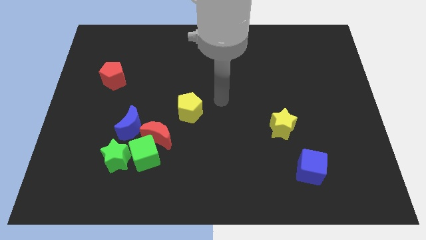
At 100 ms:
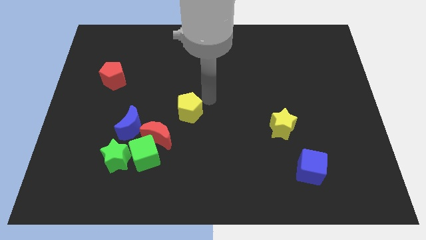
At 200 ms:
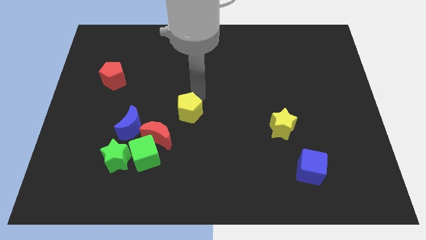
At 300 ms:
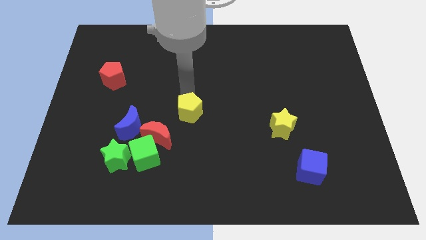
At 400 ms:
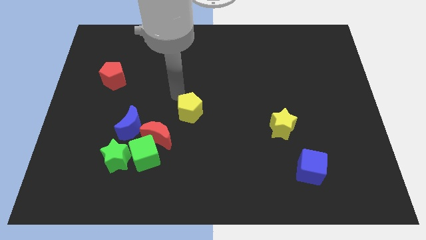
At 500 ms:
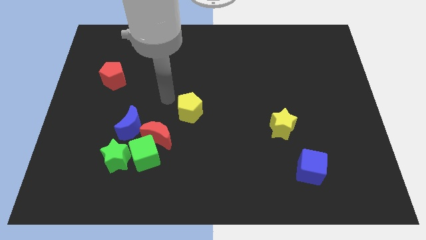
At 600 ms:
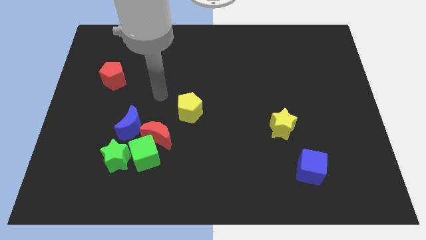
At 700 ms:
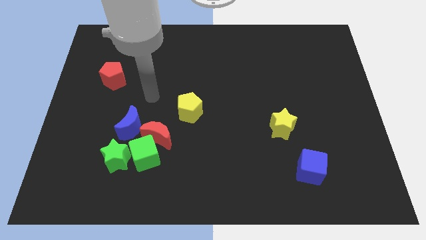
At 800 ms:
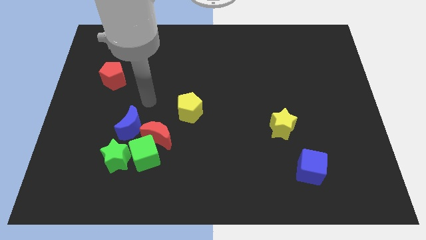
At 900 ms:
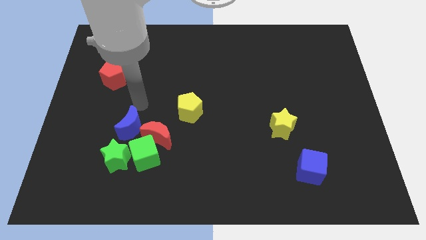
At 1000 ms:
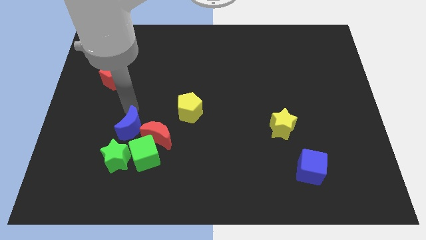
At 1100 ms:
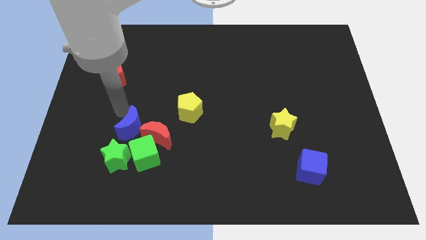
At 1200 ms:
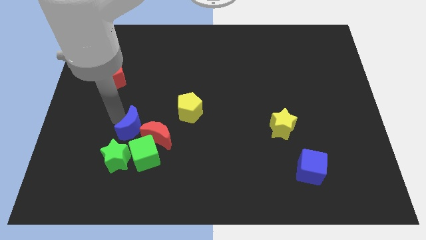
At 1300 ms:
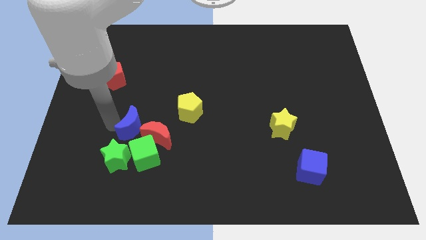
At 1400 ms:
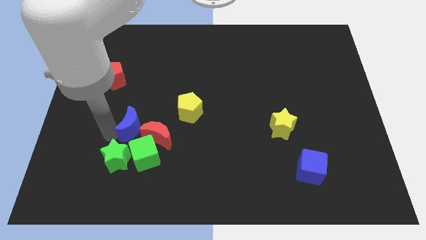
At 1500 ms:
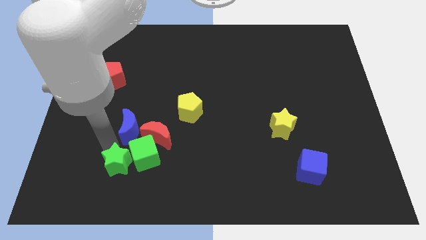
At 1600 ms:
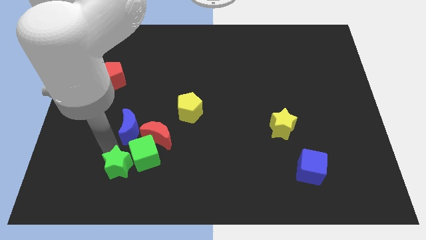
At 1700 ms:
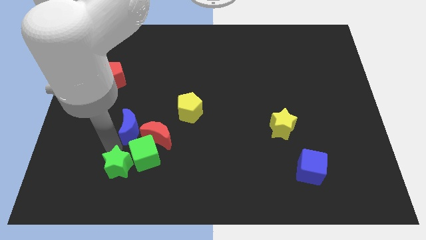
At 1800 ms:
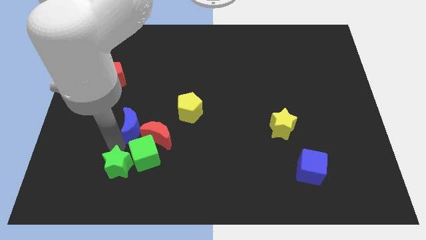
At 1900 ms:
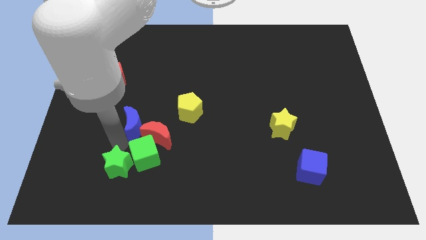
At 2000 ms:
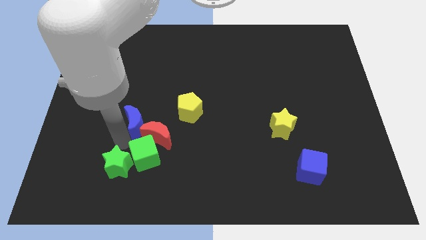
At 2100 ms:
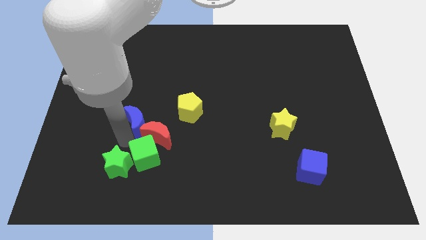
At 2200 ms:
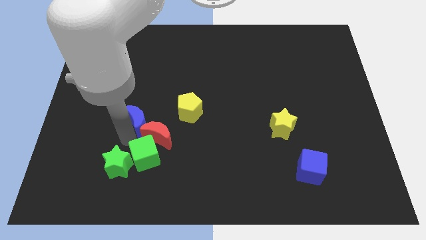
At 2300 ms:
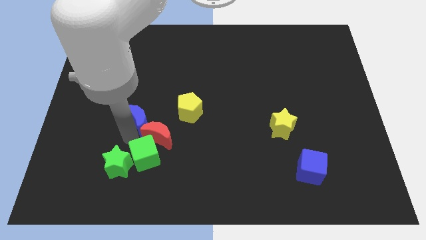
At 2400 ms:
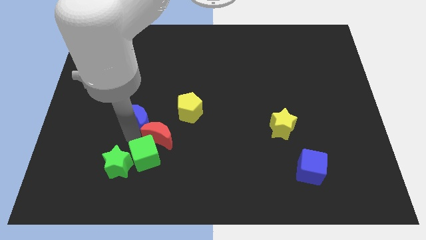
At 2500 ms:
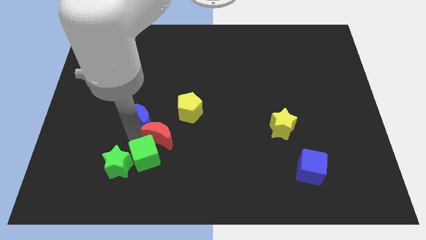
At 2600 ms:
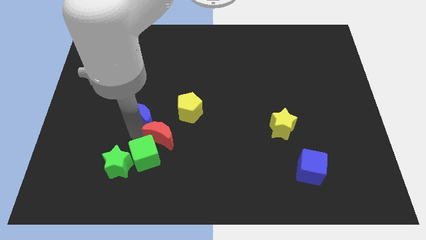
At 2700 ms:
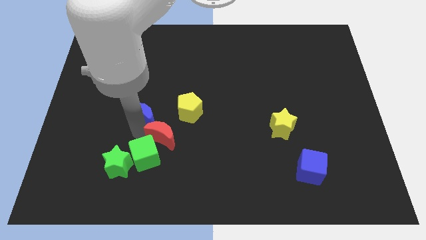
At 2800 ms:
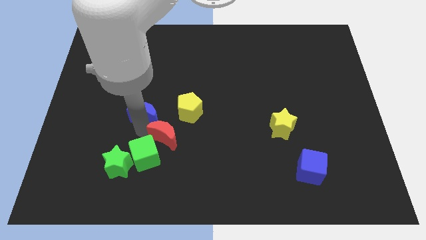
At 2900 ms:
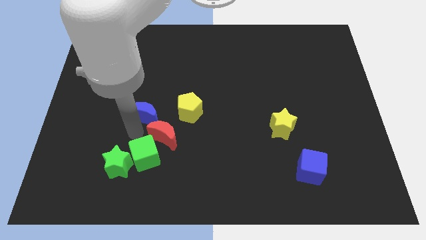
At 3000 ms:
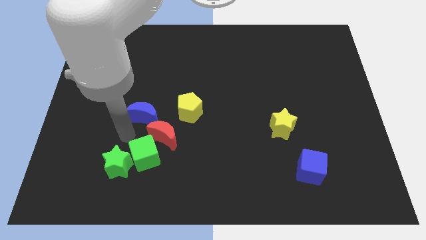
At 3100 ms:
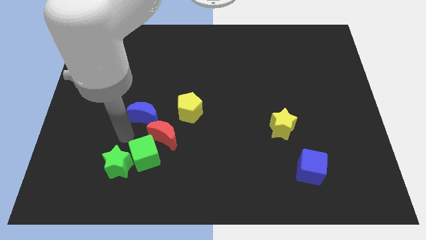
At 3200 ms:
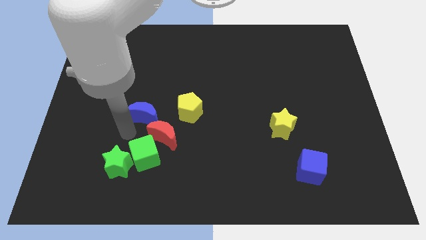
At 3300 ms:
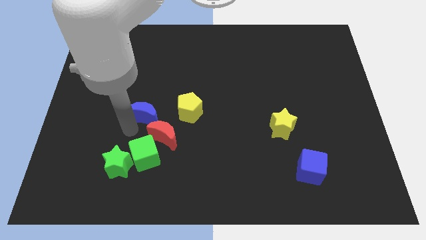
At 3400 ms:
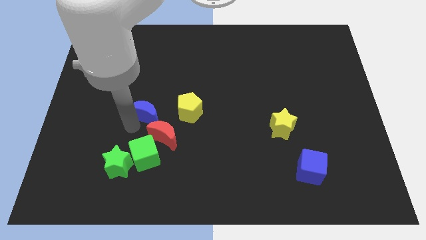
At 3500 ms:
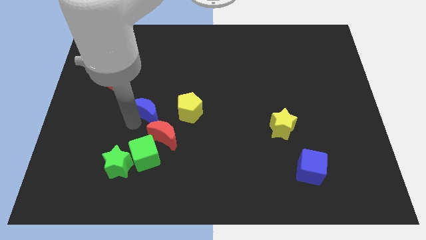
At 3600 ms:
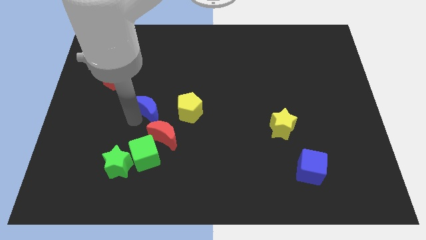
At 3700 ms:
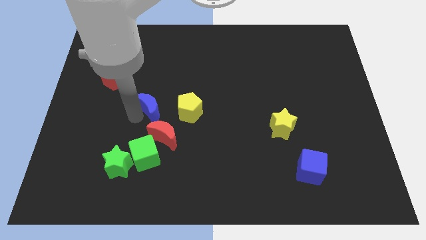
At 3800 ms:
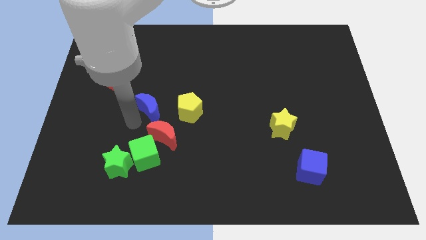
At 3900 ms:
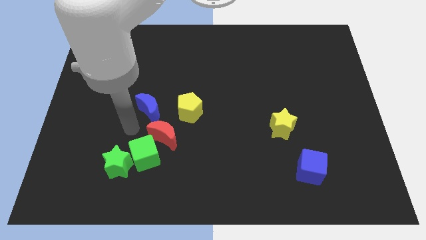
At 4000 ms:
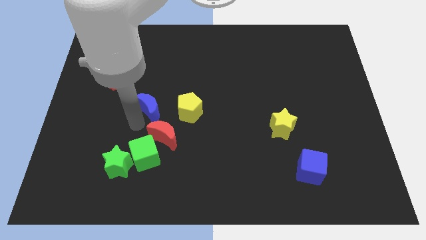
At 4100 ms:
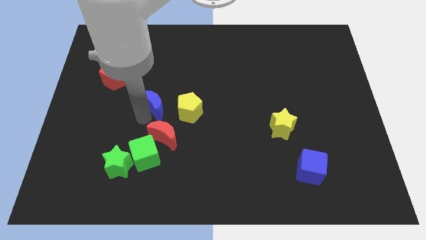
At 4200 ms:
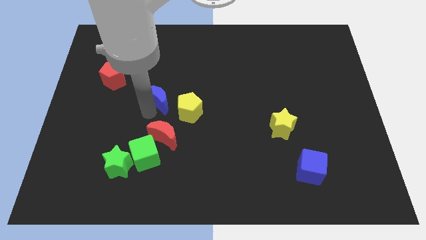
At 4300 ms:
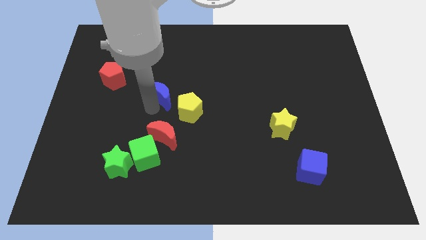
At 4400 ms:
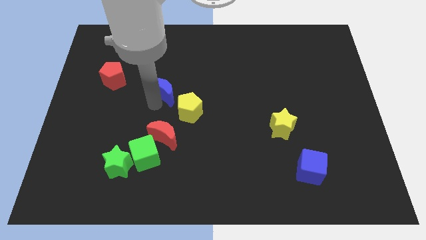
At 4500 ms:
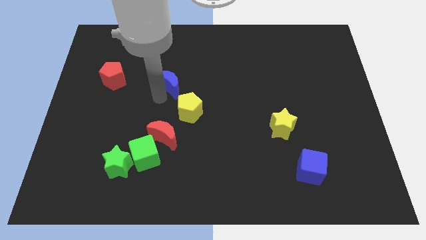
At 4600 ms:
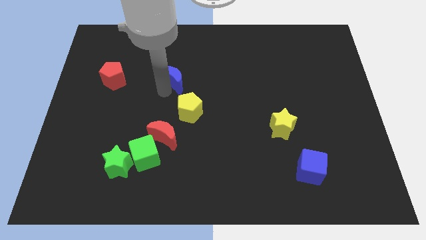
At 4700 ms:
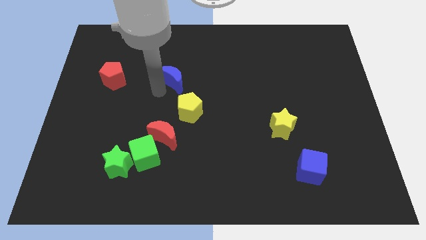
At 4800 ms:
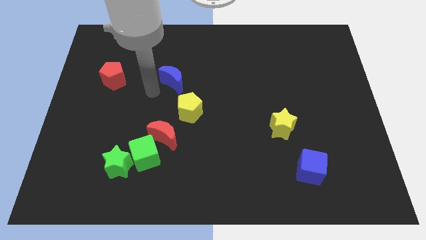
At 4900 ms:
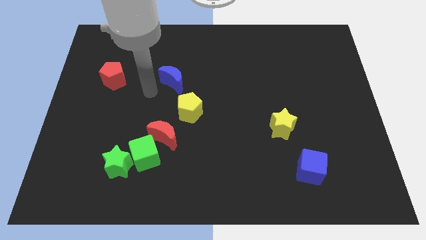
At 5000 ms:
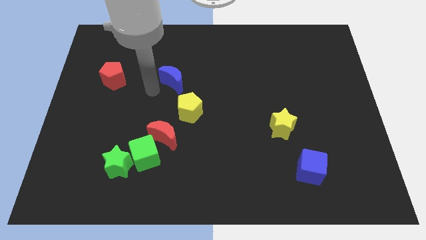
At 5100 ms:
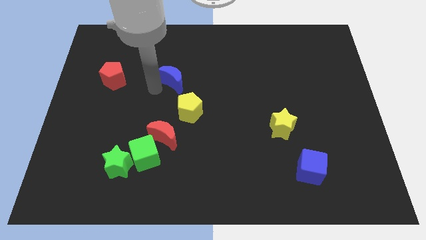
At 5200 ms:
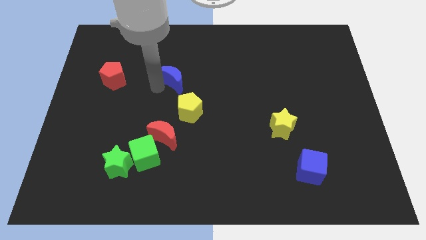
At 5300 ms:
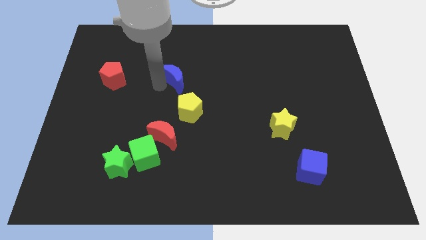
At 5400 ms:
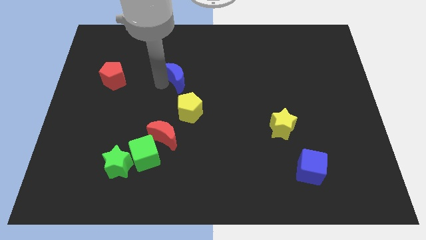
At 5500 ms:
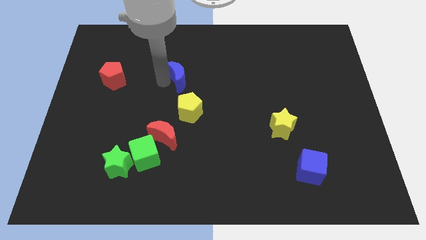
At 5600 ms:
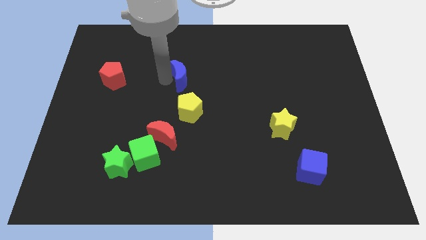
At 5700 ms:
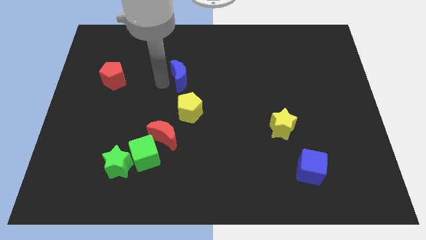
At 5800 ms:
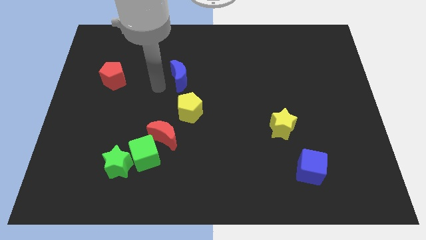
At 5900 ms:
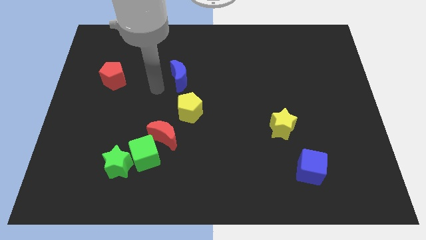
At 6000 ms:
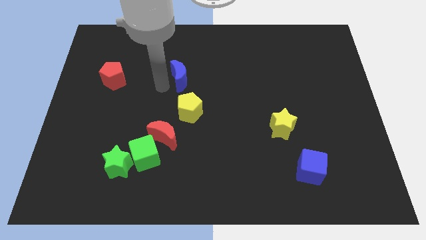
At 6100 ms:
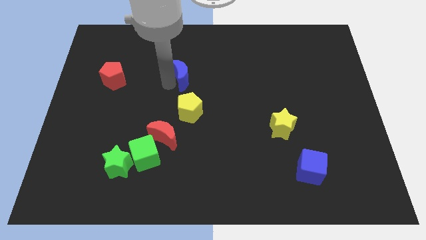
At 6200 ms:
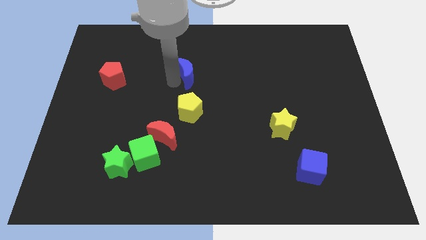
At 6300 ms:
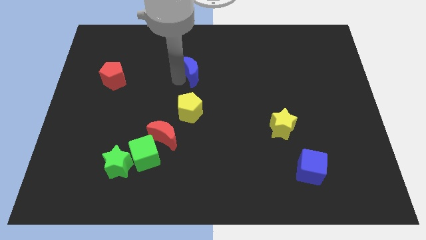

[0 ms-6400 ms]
move the blue moon upwards and to the right diagonally

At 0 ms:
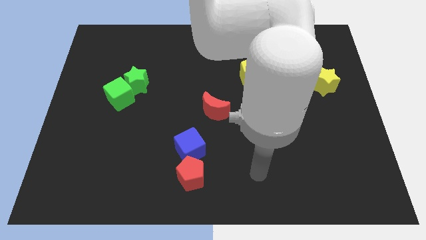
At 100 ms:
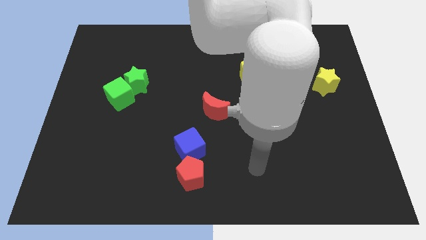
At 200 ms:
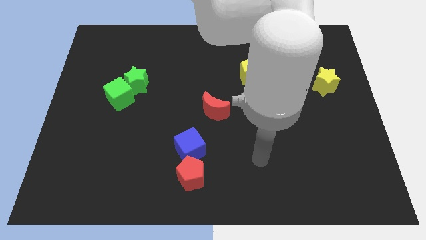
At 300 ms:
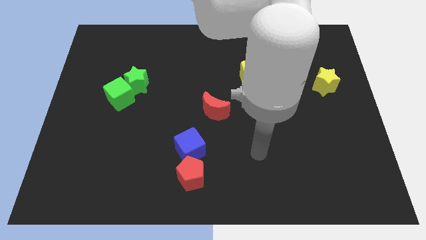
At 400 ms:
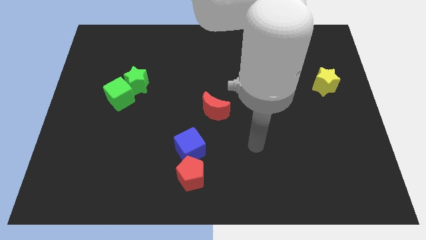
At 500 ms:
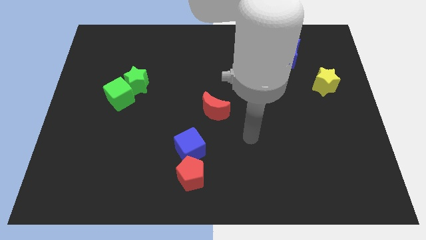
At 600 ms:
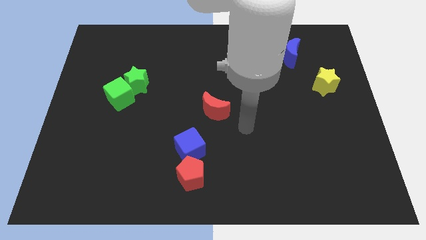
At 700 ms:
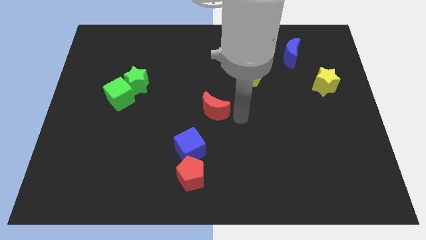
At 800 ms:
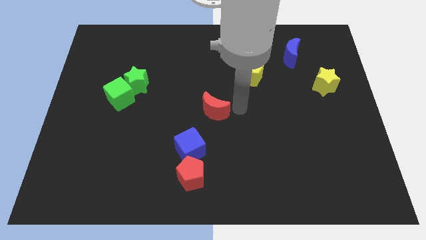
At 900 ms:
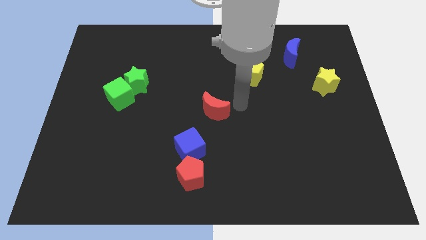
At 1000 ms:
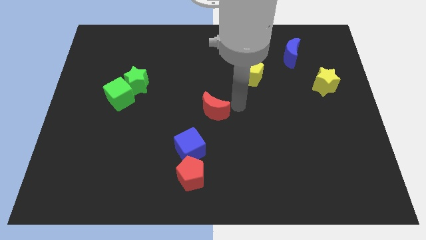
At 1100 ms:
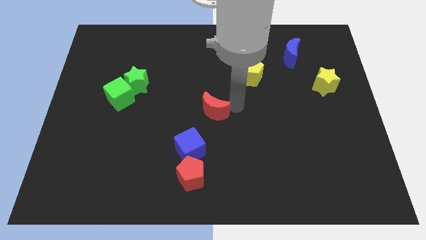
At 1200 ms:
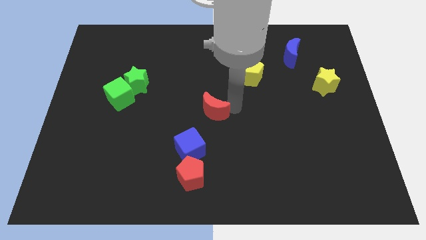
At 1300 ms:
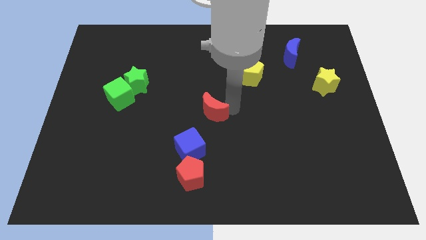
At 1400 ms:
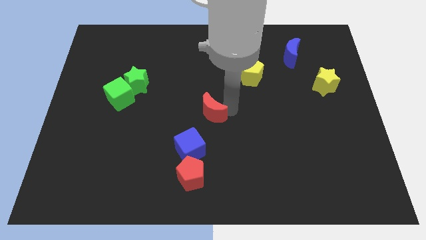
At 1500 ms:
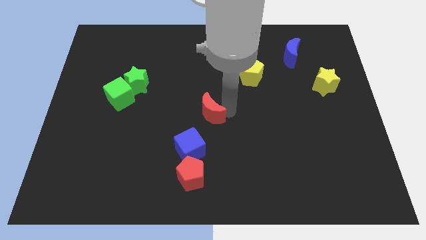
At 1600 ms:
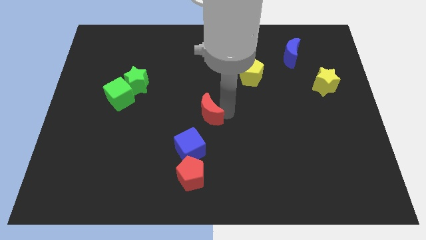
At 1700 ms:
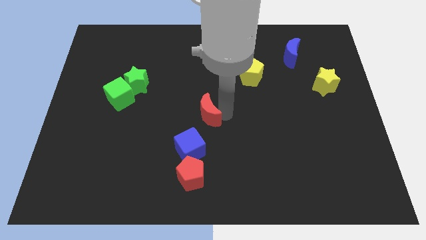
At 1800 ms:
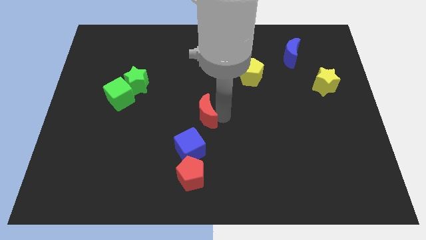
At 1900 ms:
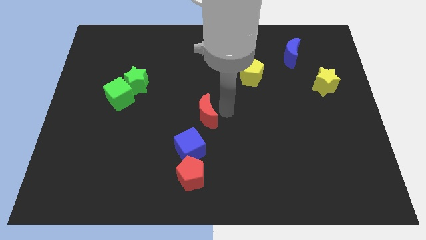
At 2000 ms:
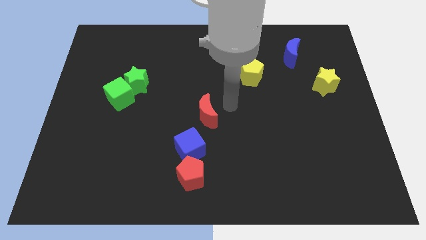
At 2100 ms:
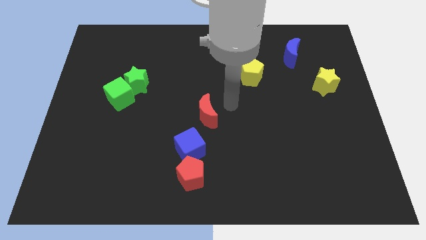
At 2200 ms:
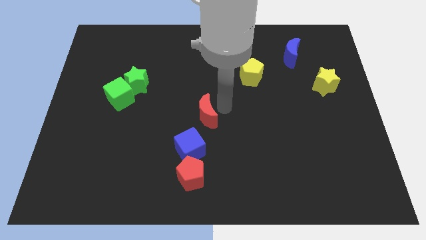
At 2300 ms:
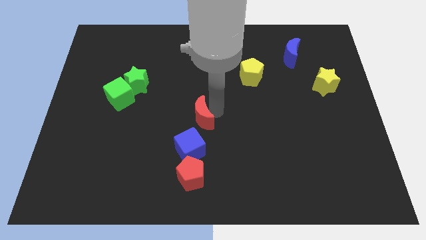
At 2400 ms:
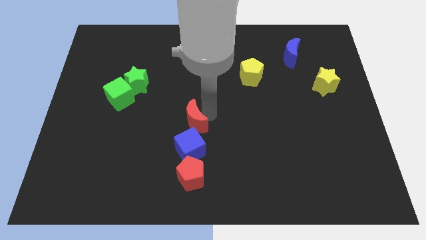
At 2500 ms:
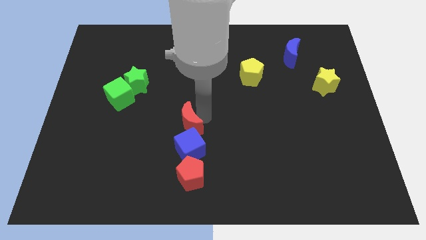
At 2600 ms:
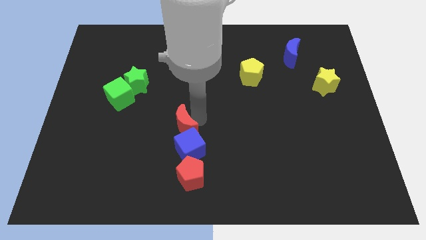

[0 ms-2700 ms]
slide the red moon downwards and left a little bit
